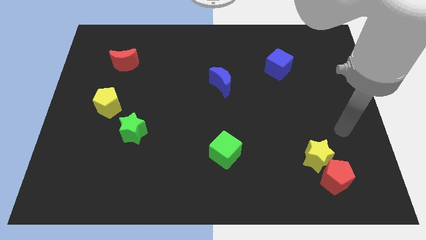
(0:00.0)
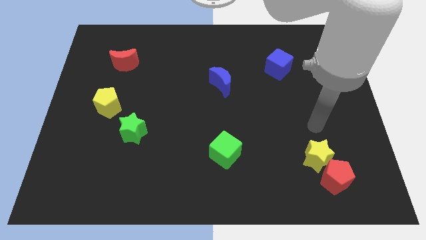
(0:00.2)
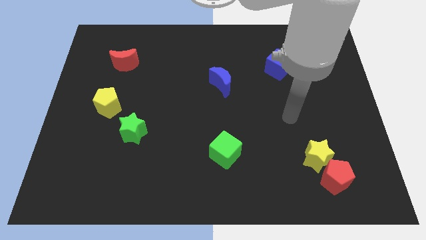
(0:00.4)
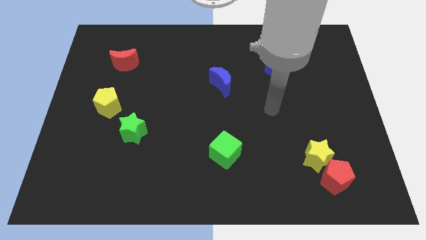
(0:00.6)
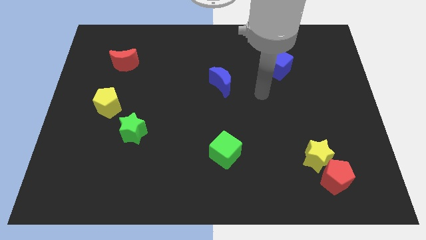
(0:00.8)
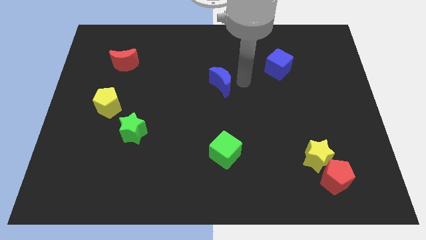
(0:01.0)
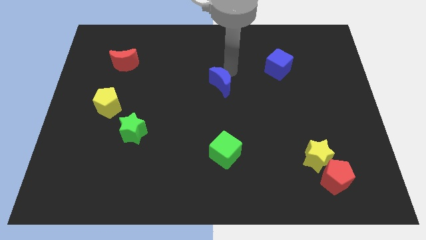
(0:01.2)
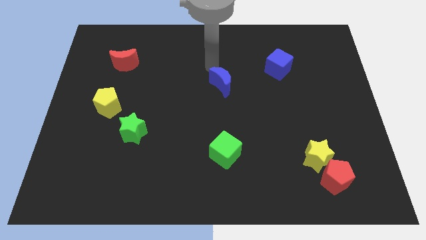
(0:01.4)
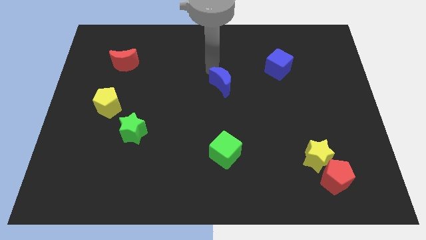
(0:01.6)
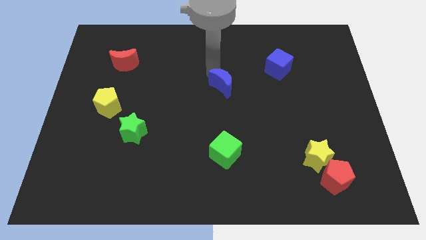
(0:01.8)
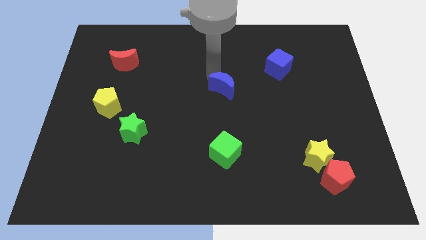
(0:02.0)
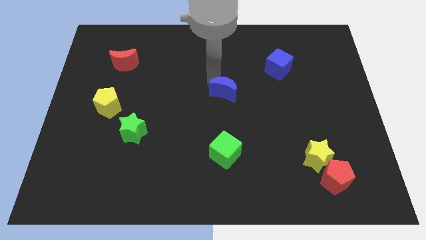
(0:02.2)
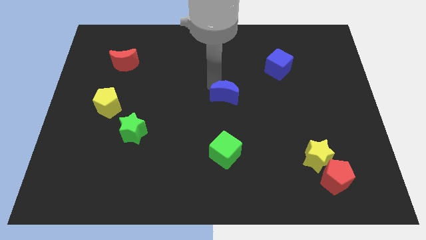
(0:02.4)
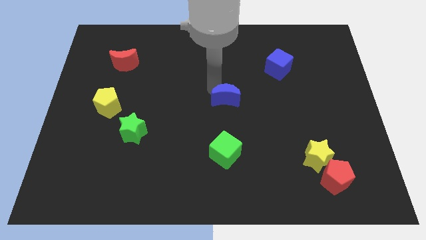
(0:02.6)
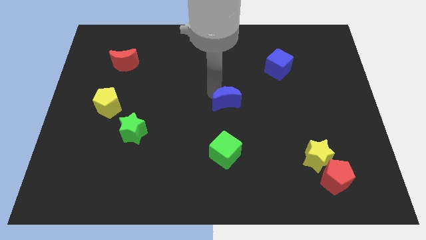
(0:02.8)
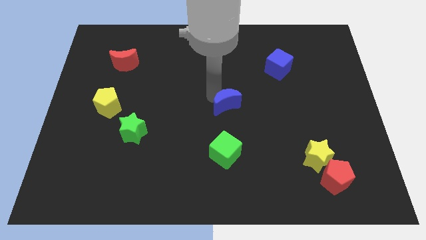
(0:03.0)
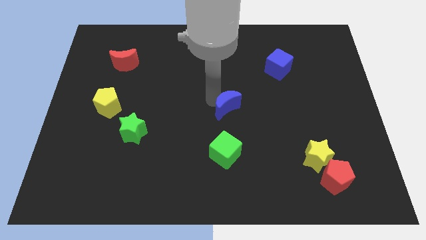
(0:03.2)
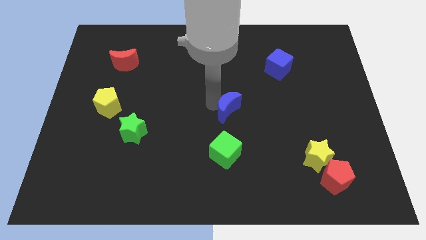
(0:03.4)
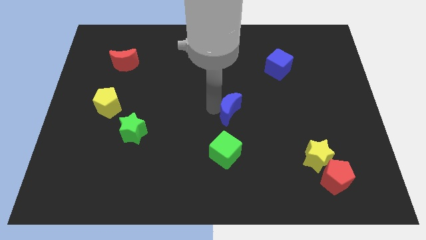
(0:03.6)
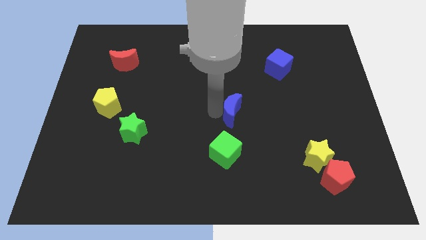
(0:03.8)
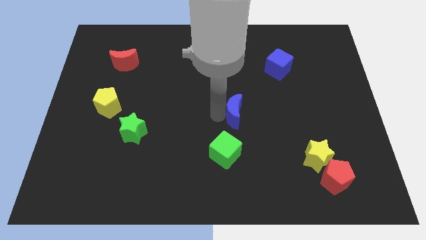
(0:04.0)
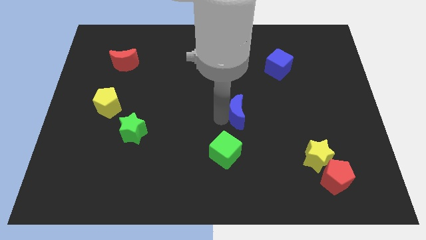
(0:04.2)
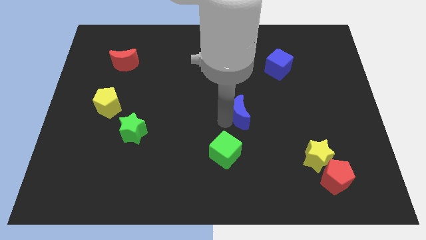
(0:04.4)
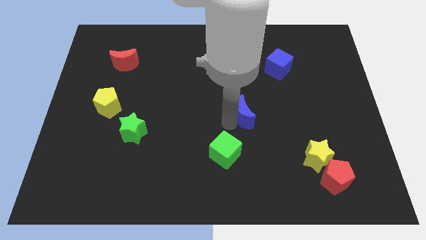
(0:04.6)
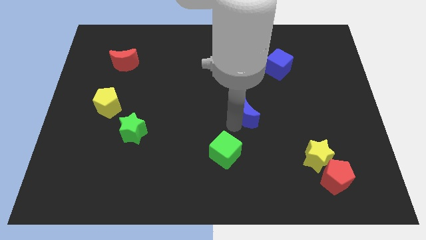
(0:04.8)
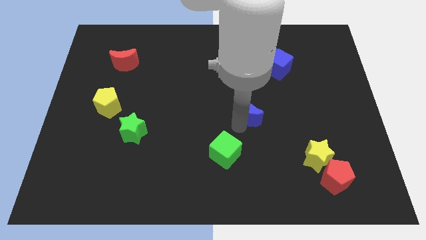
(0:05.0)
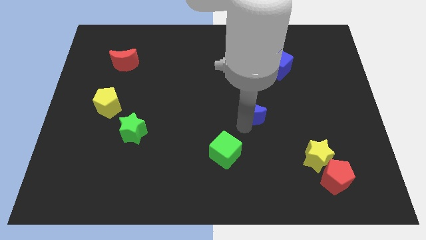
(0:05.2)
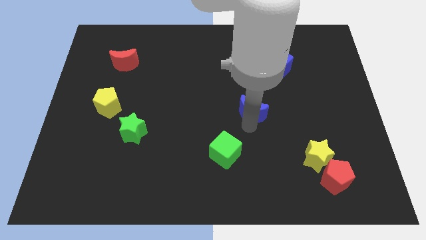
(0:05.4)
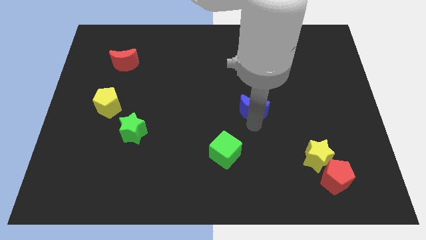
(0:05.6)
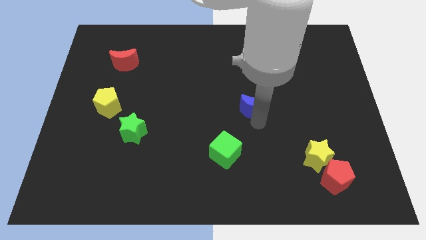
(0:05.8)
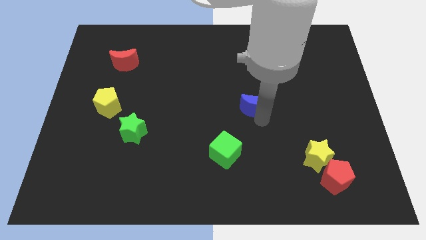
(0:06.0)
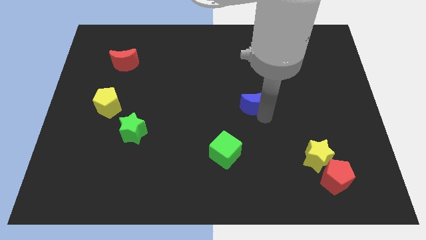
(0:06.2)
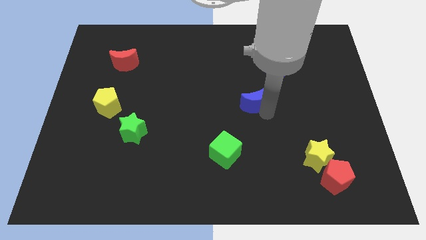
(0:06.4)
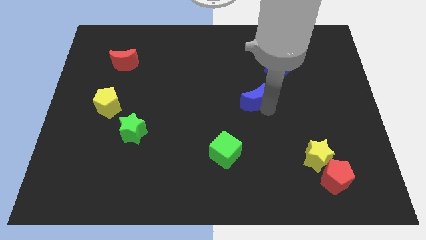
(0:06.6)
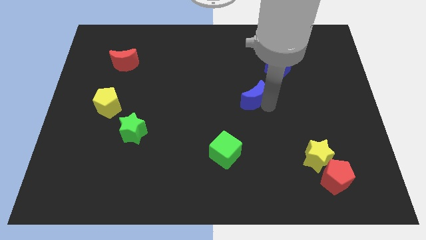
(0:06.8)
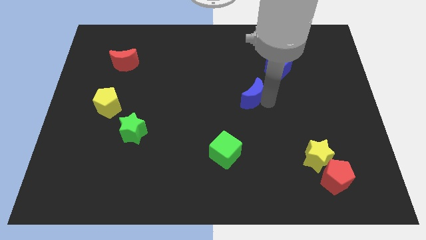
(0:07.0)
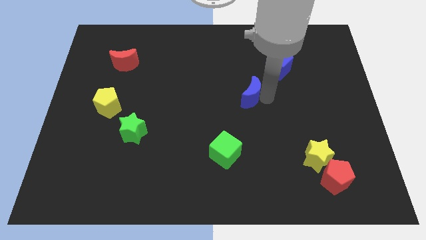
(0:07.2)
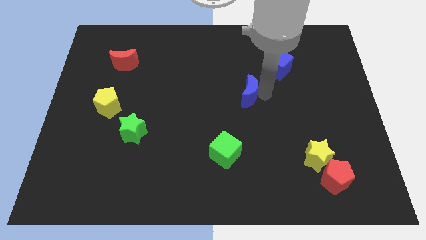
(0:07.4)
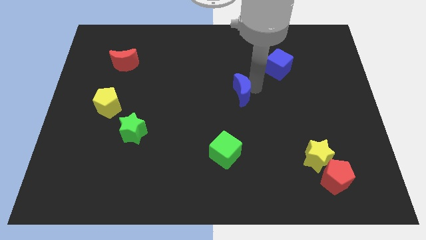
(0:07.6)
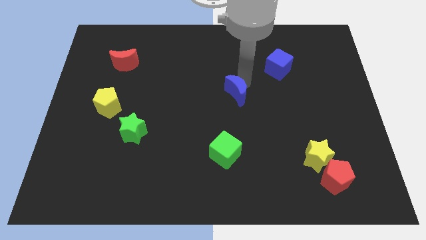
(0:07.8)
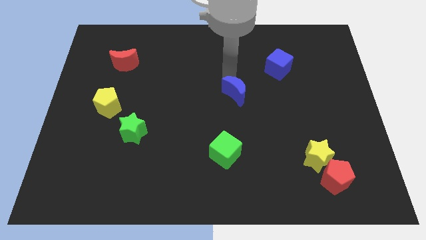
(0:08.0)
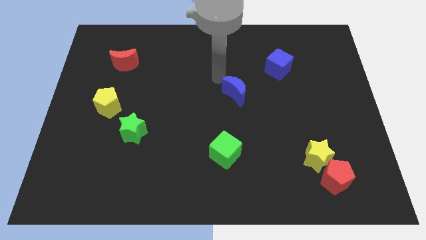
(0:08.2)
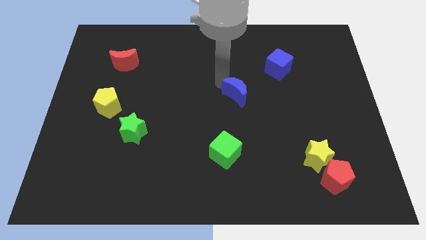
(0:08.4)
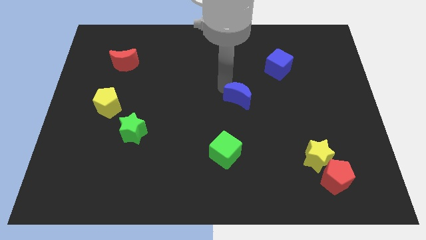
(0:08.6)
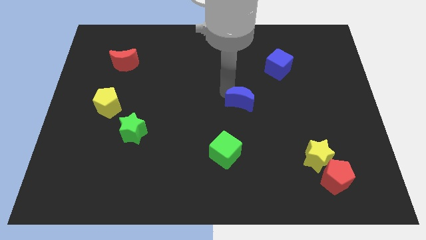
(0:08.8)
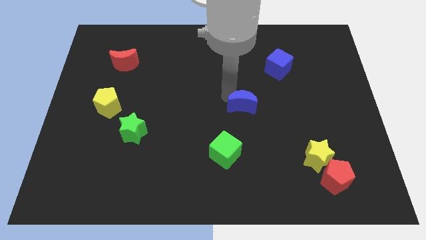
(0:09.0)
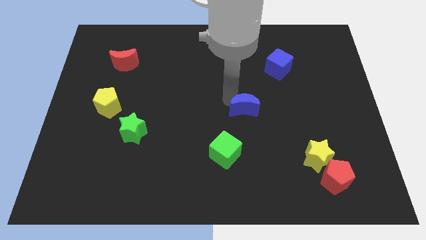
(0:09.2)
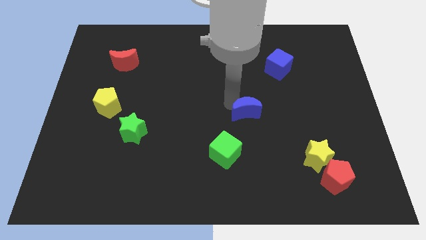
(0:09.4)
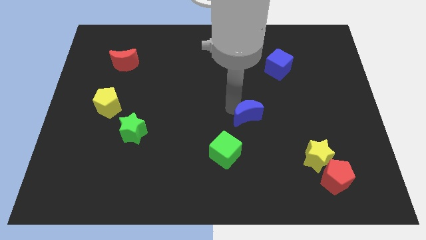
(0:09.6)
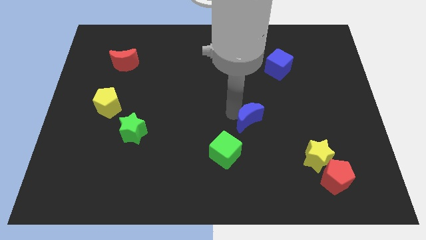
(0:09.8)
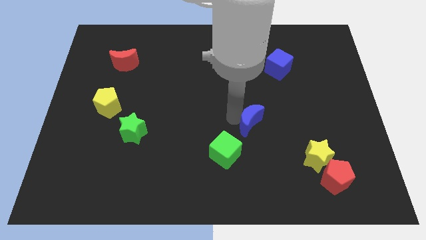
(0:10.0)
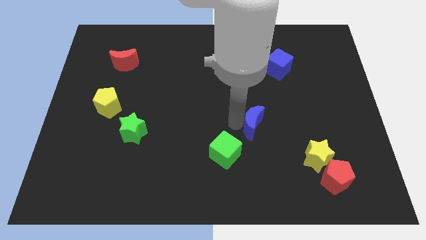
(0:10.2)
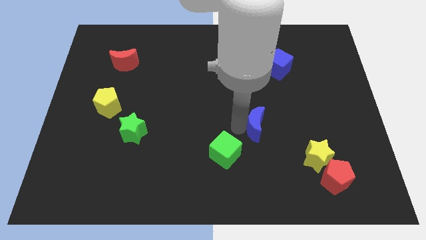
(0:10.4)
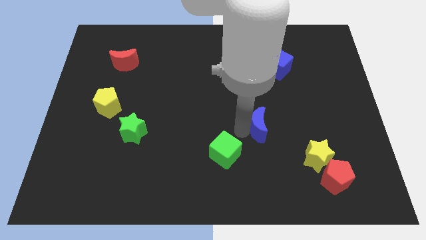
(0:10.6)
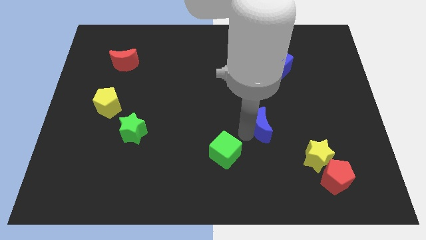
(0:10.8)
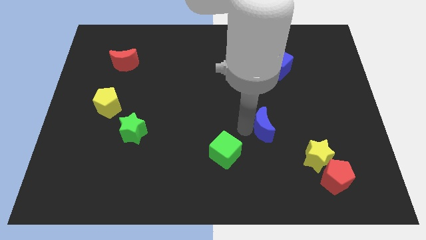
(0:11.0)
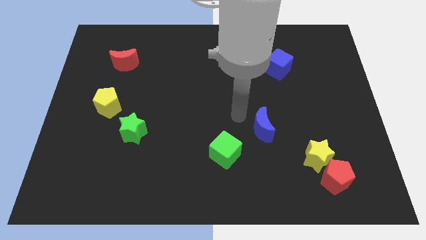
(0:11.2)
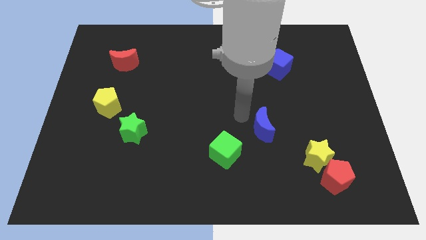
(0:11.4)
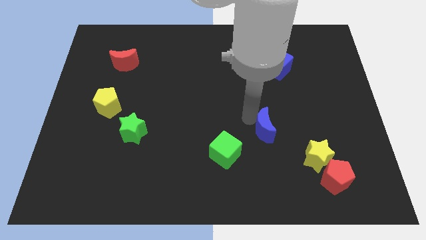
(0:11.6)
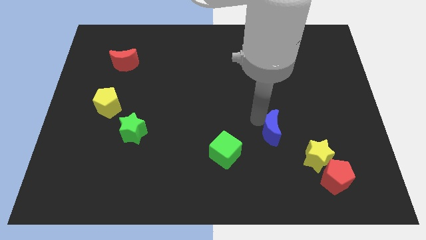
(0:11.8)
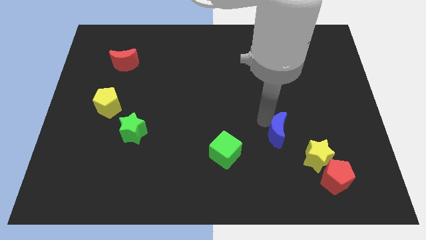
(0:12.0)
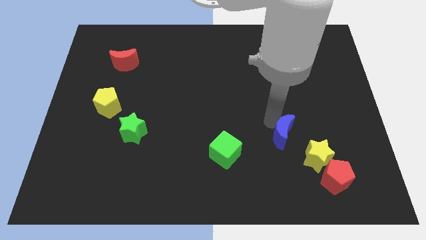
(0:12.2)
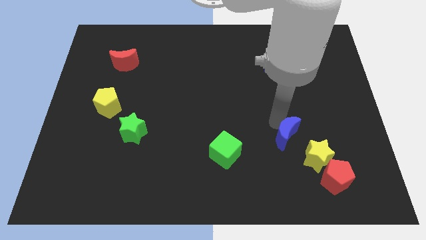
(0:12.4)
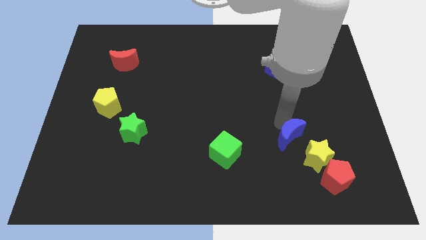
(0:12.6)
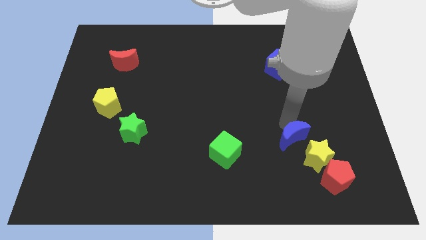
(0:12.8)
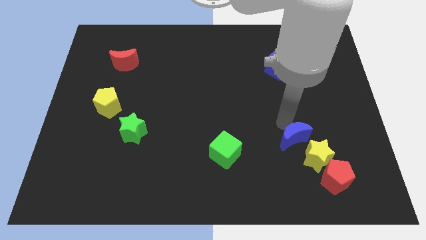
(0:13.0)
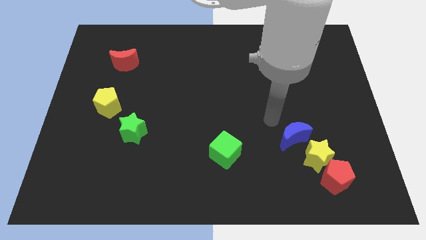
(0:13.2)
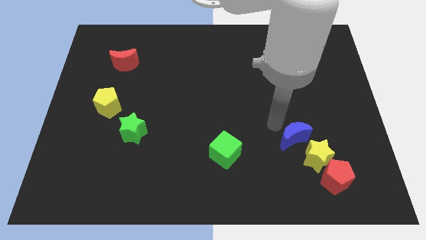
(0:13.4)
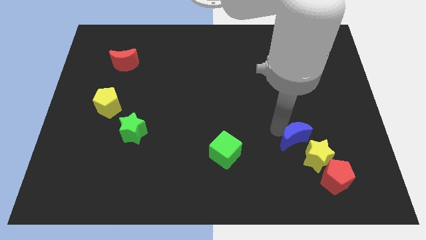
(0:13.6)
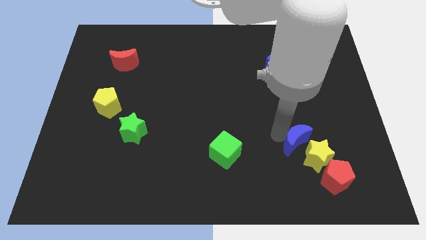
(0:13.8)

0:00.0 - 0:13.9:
put the blue moon towards the yellow star

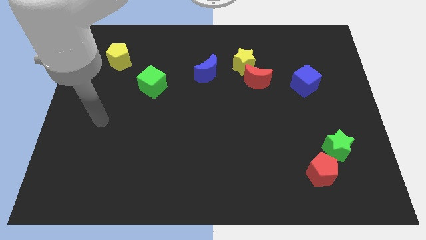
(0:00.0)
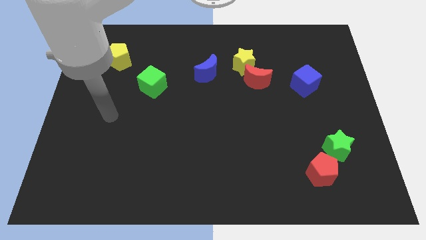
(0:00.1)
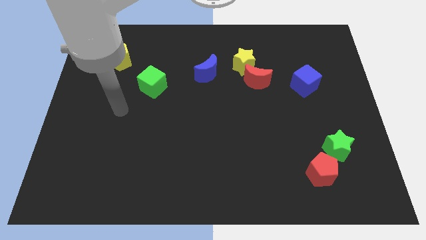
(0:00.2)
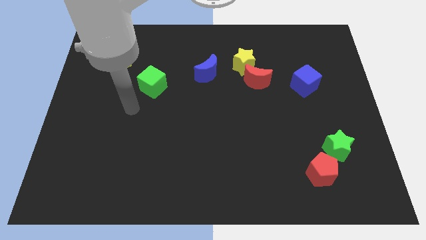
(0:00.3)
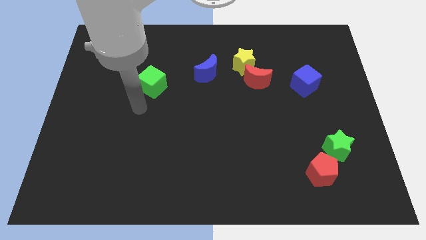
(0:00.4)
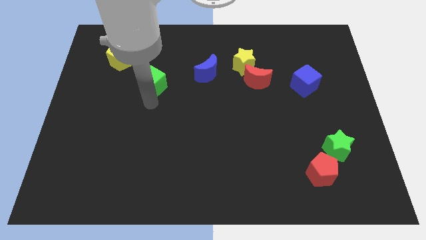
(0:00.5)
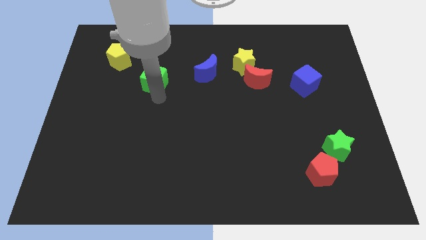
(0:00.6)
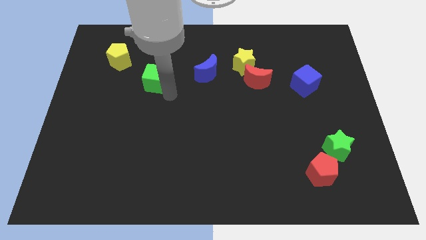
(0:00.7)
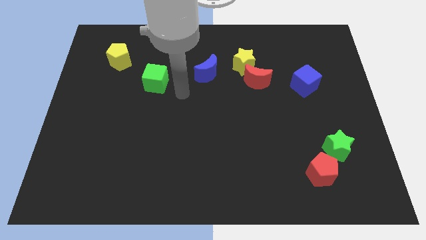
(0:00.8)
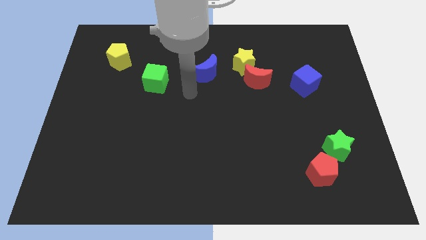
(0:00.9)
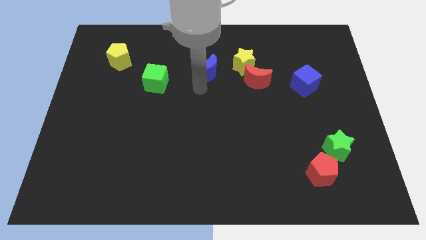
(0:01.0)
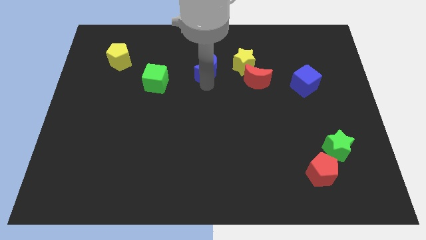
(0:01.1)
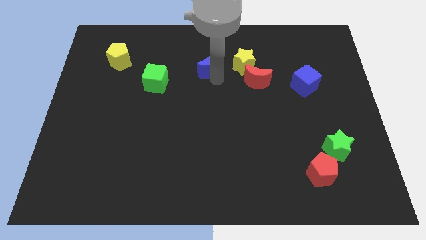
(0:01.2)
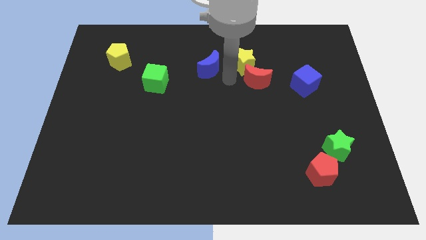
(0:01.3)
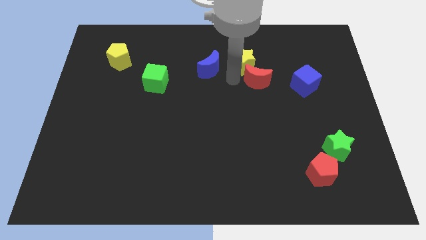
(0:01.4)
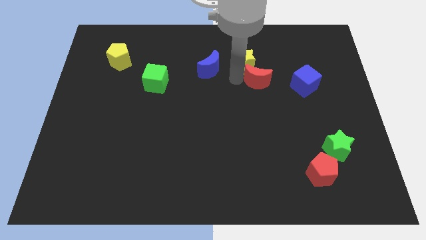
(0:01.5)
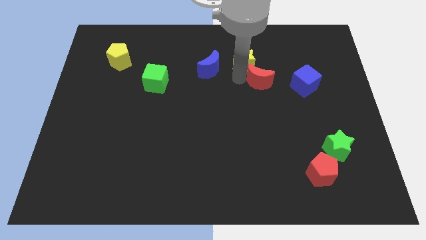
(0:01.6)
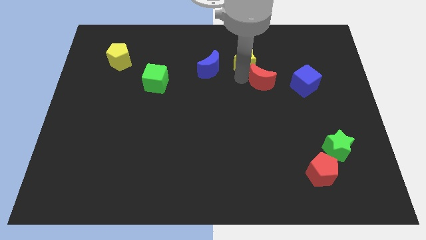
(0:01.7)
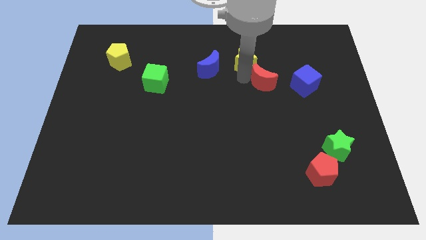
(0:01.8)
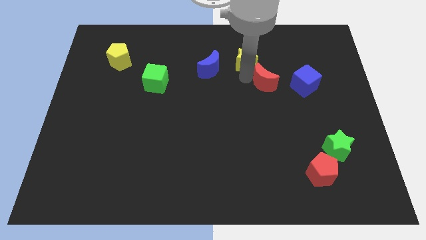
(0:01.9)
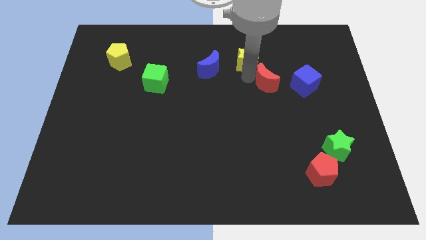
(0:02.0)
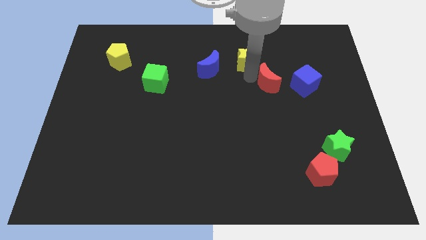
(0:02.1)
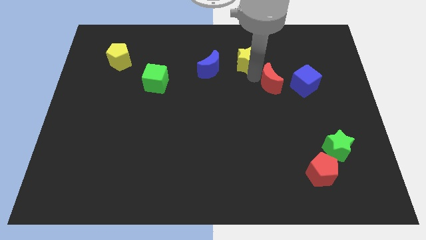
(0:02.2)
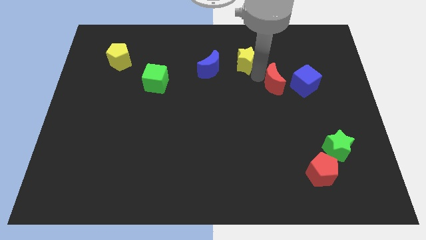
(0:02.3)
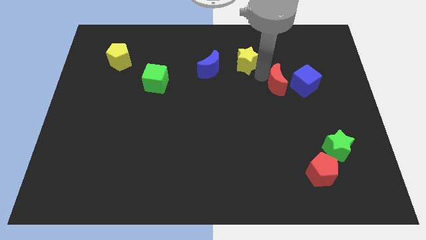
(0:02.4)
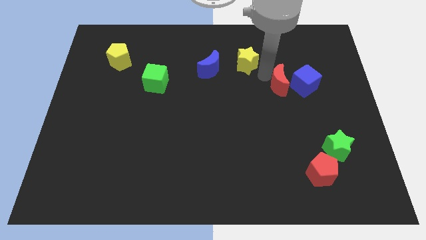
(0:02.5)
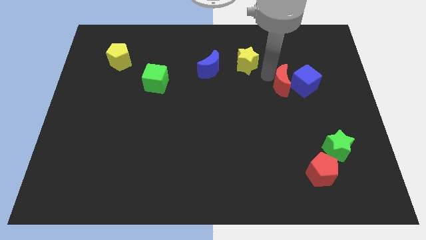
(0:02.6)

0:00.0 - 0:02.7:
slide the red moon next to the blue cube
